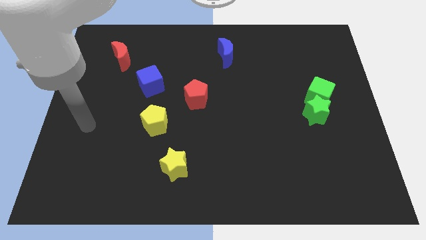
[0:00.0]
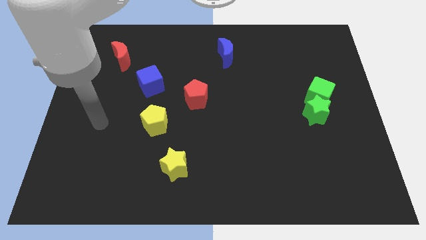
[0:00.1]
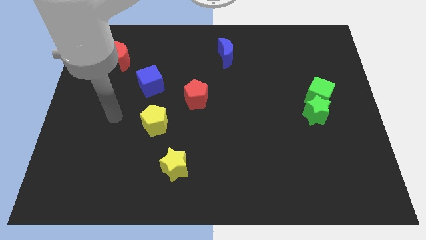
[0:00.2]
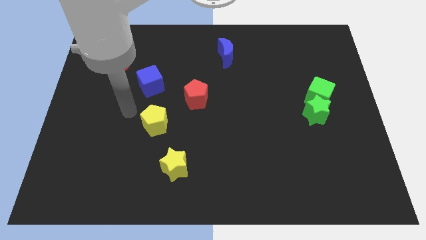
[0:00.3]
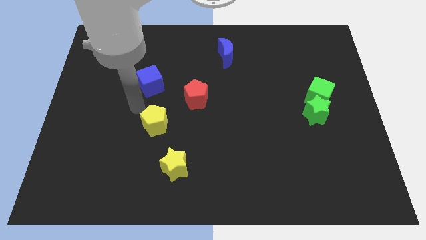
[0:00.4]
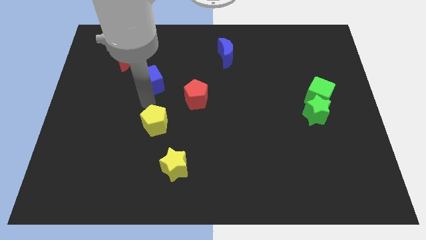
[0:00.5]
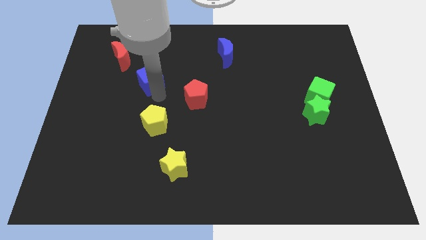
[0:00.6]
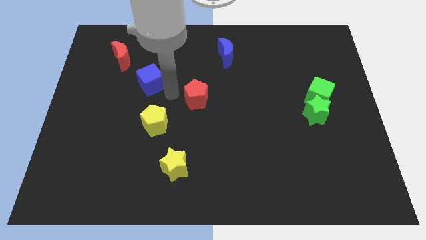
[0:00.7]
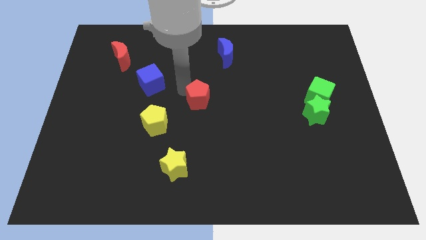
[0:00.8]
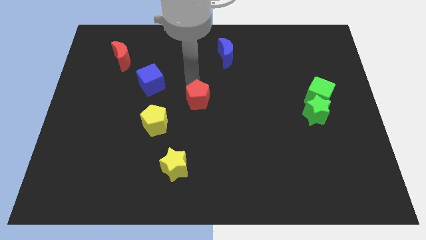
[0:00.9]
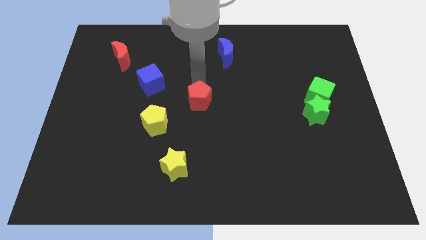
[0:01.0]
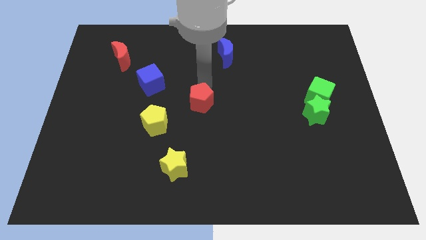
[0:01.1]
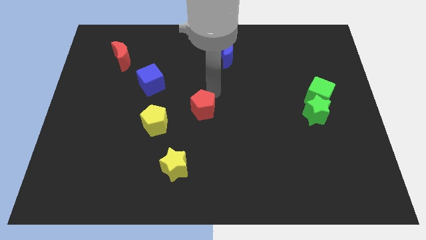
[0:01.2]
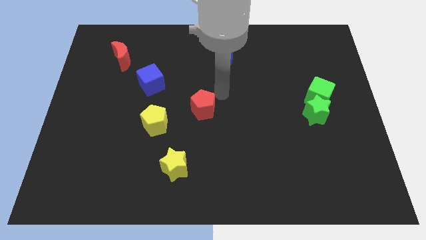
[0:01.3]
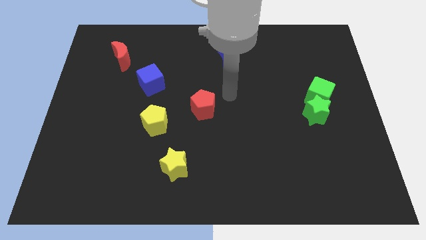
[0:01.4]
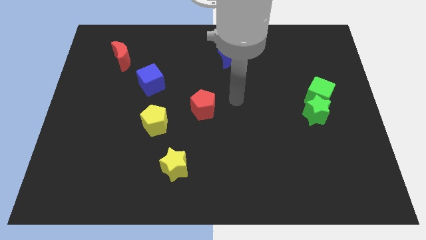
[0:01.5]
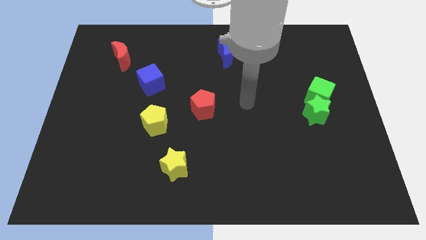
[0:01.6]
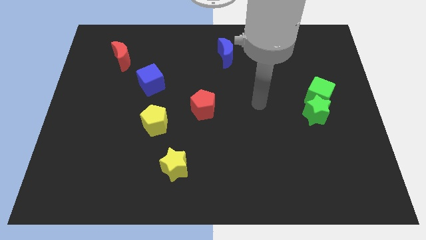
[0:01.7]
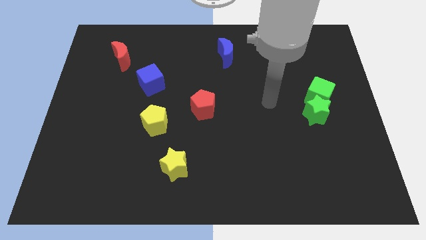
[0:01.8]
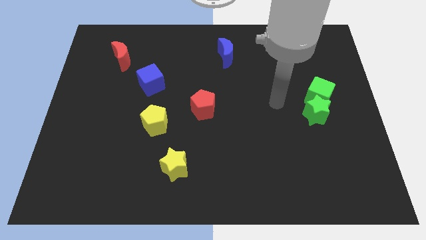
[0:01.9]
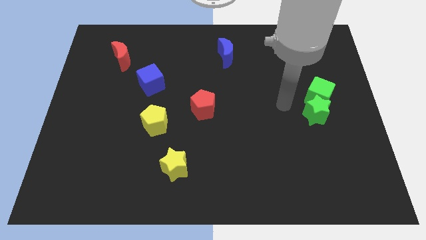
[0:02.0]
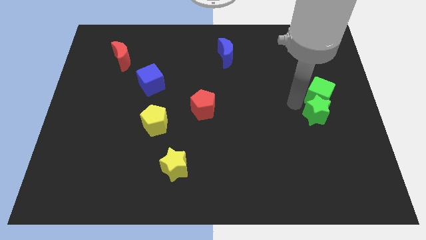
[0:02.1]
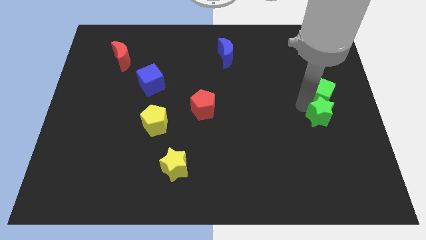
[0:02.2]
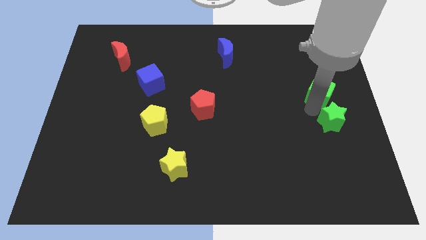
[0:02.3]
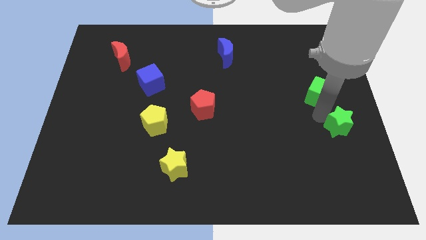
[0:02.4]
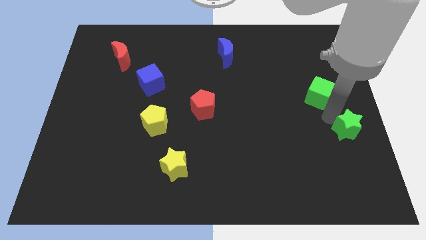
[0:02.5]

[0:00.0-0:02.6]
move the green cube away from the green star

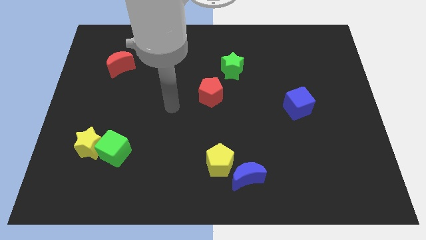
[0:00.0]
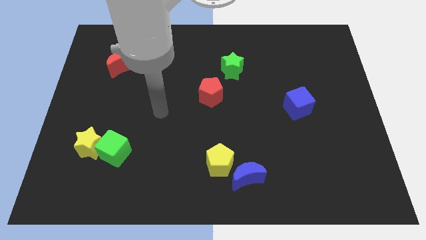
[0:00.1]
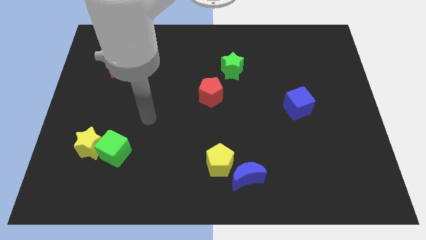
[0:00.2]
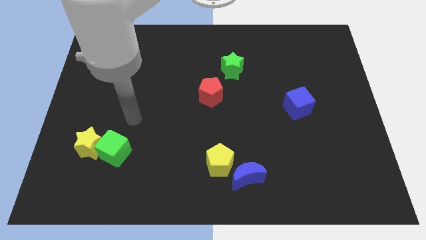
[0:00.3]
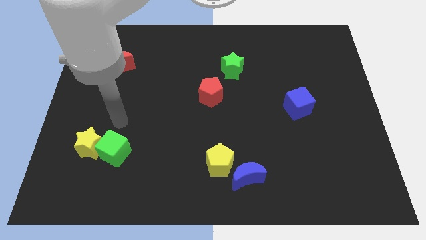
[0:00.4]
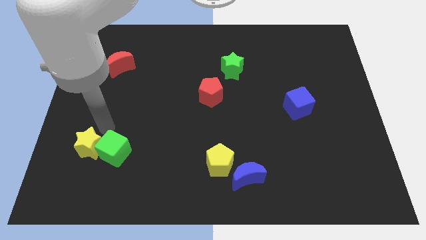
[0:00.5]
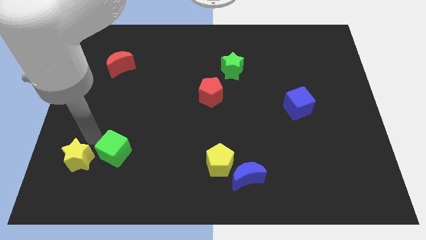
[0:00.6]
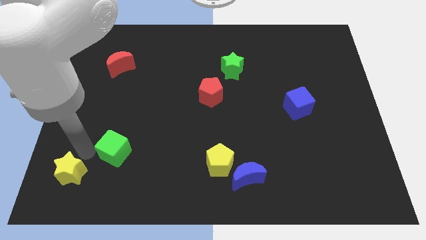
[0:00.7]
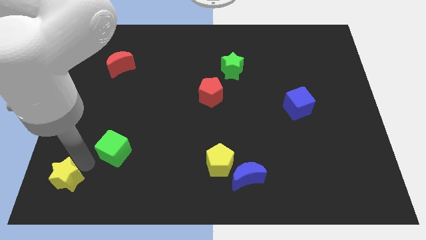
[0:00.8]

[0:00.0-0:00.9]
move the green cube away from the yellow star

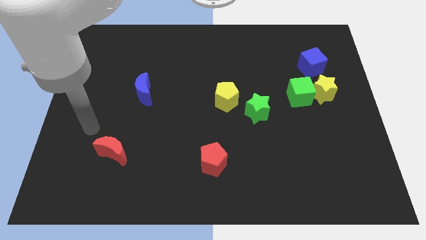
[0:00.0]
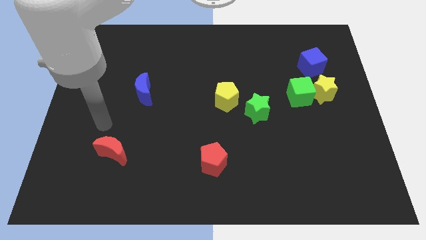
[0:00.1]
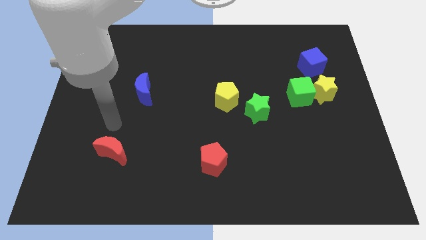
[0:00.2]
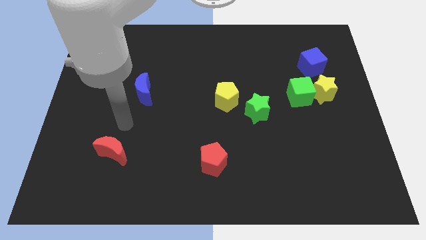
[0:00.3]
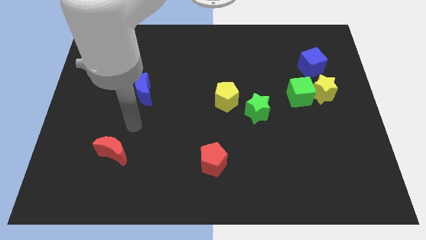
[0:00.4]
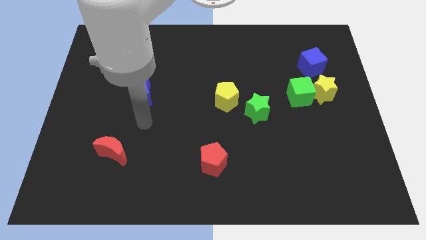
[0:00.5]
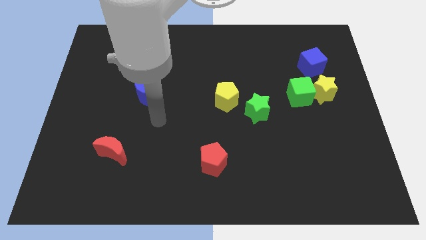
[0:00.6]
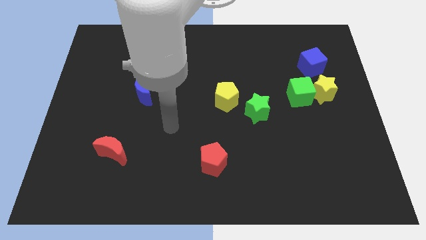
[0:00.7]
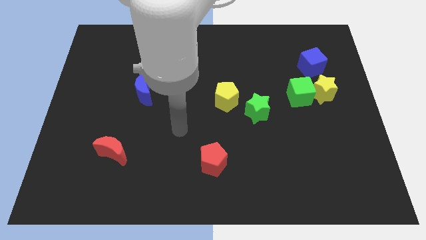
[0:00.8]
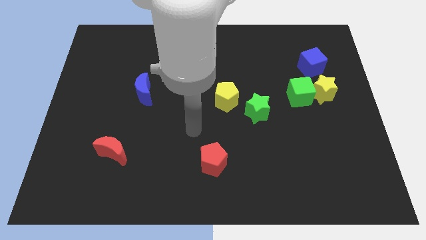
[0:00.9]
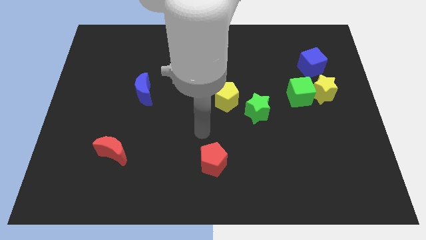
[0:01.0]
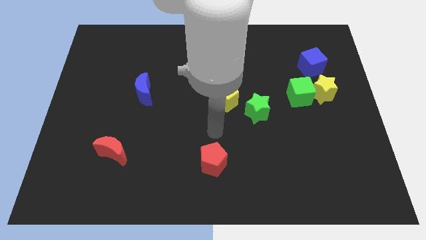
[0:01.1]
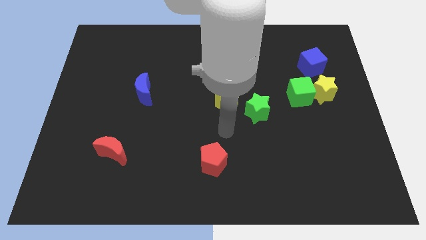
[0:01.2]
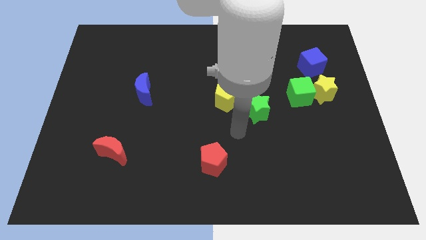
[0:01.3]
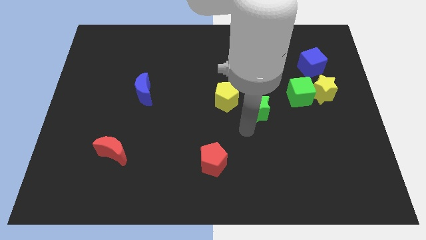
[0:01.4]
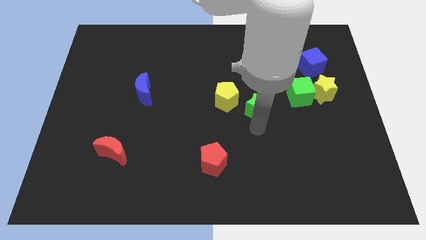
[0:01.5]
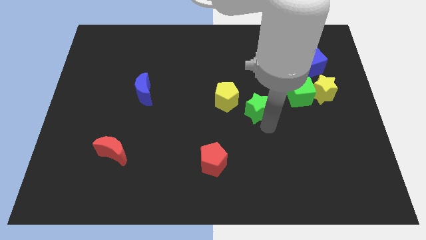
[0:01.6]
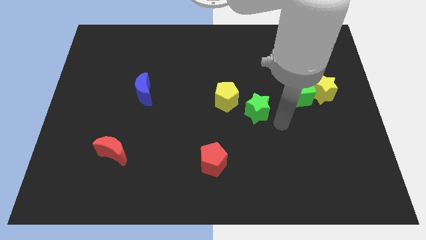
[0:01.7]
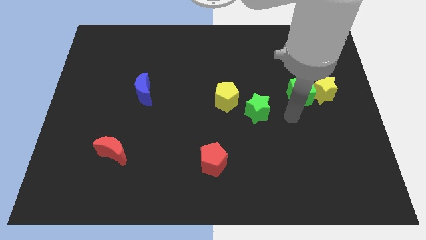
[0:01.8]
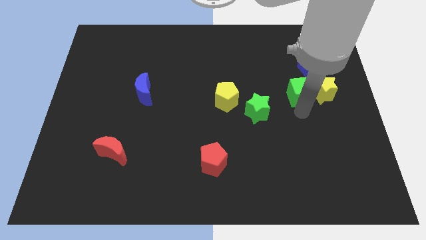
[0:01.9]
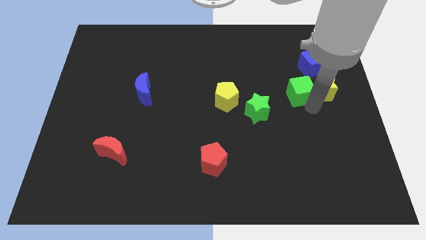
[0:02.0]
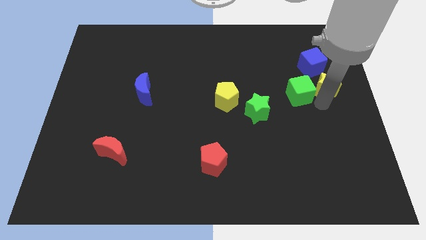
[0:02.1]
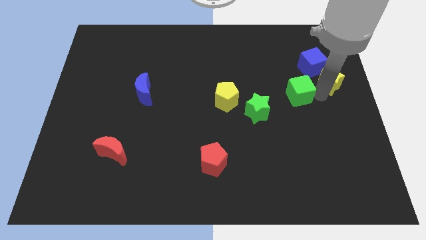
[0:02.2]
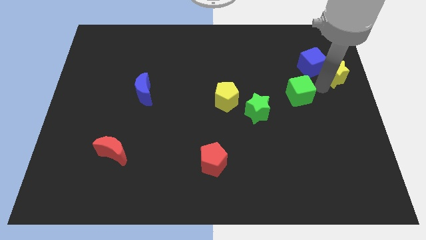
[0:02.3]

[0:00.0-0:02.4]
separate the green cube from the yellow star

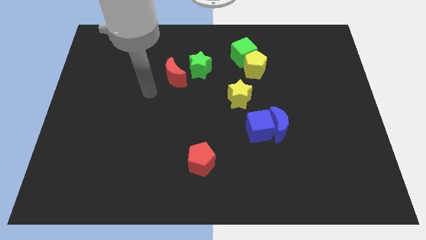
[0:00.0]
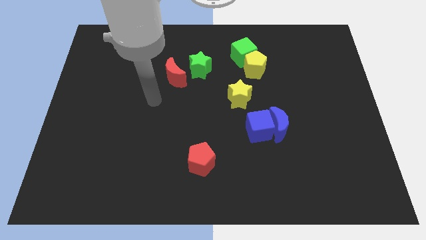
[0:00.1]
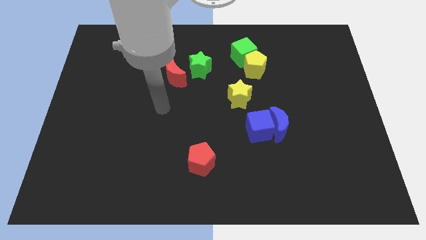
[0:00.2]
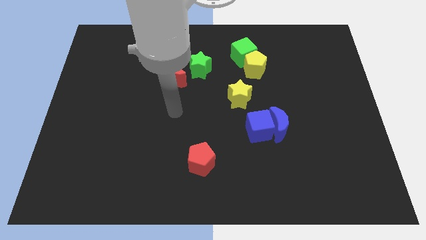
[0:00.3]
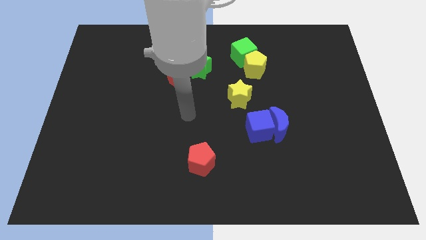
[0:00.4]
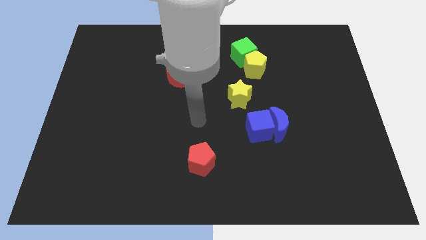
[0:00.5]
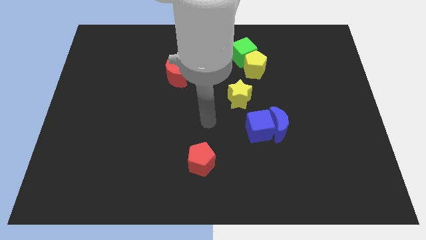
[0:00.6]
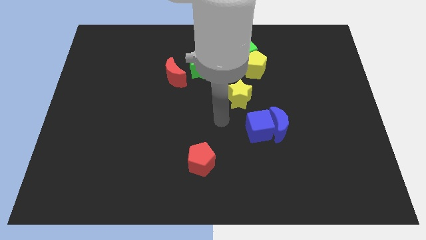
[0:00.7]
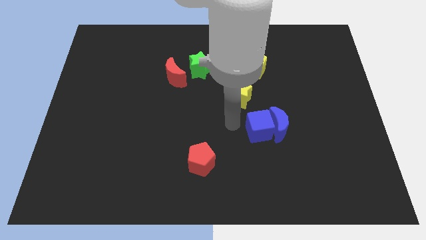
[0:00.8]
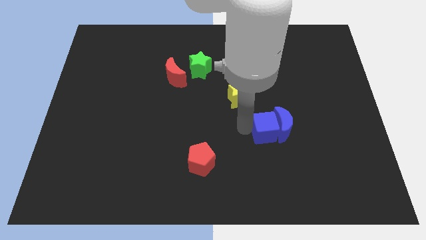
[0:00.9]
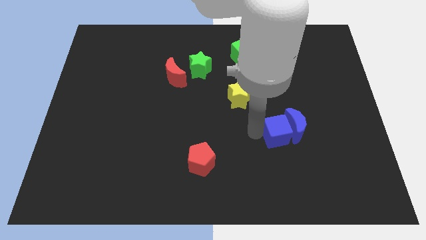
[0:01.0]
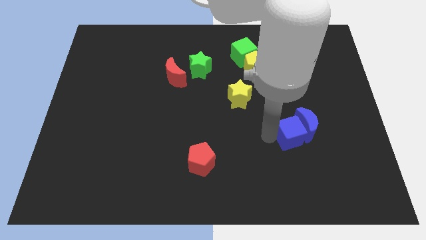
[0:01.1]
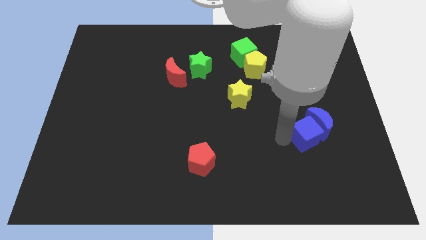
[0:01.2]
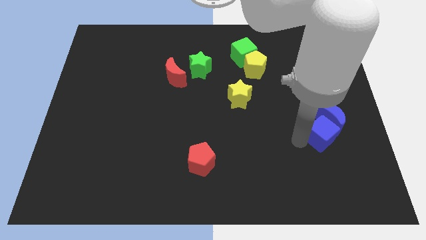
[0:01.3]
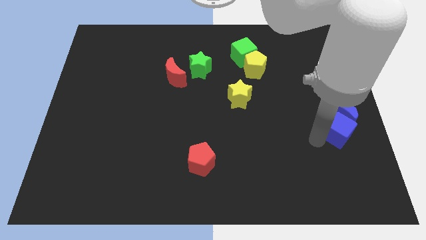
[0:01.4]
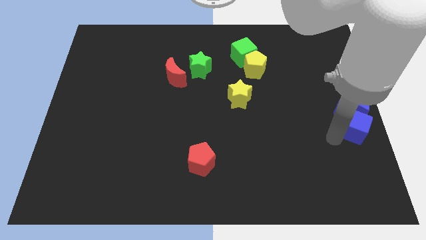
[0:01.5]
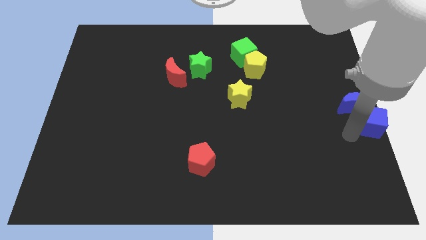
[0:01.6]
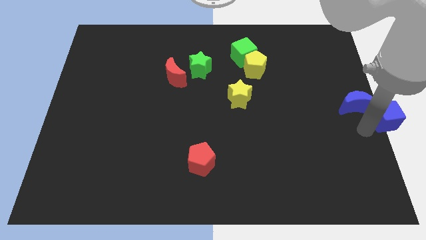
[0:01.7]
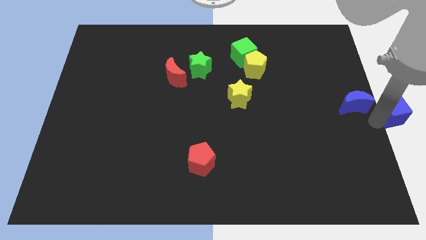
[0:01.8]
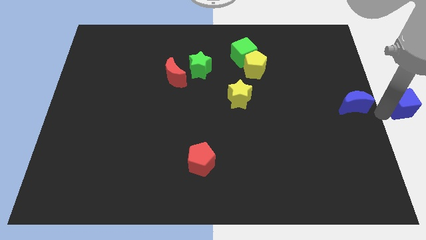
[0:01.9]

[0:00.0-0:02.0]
pull the blue moon apart from the blue cube

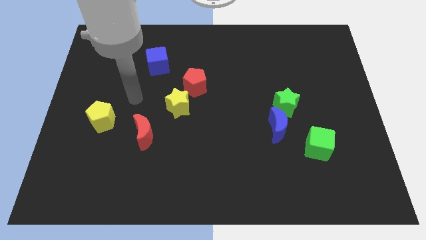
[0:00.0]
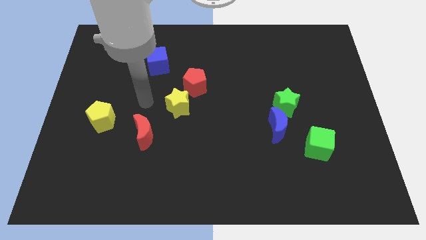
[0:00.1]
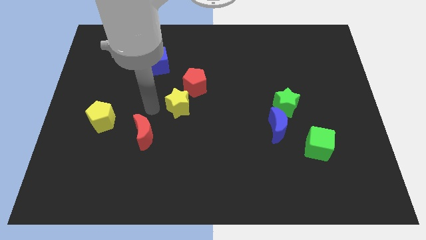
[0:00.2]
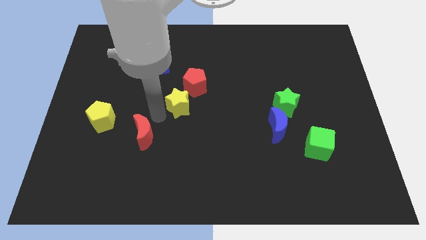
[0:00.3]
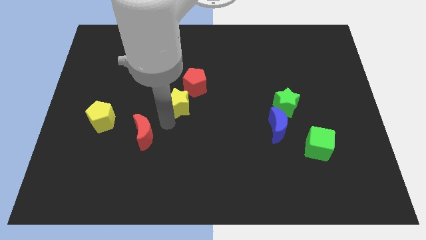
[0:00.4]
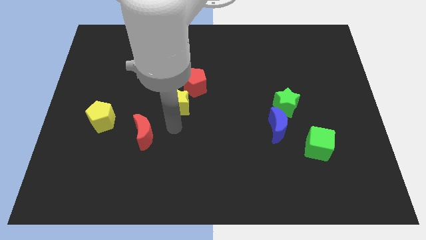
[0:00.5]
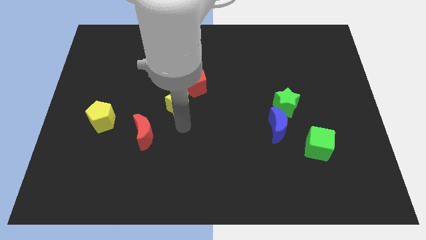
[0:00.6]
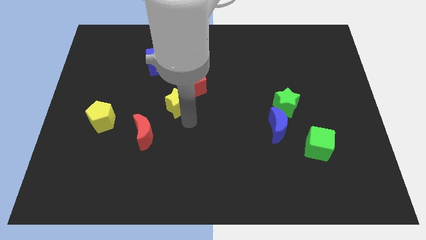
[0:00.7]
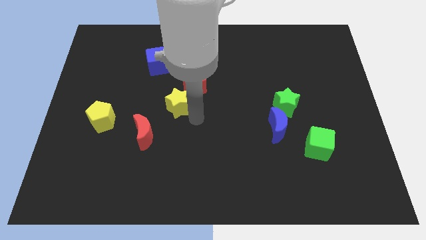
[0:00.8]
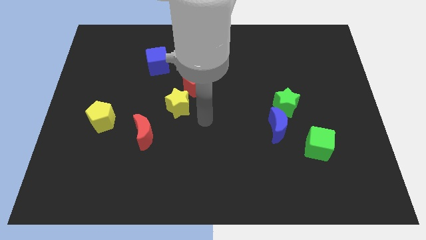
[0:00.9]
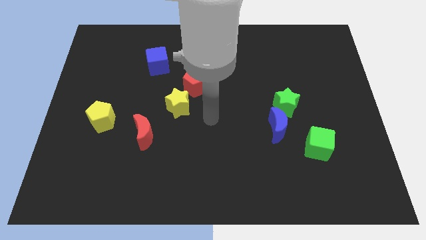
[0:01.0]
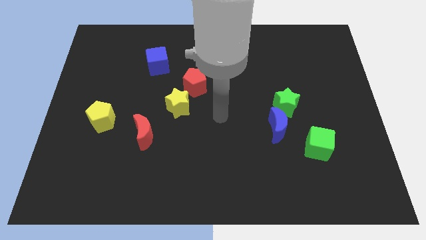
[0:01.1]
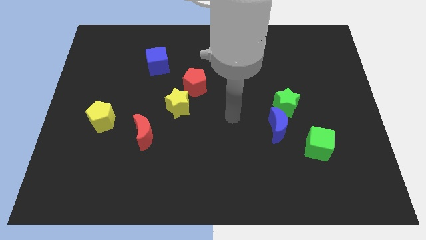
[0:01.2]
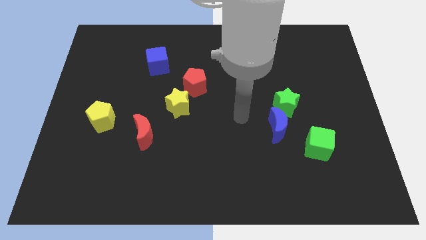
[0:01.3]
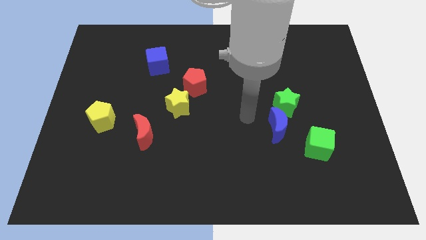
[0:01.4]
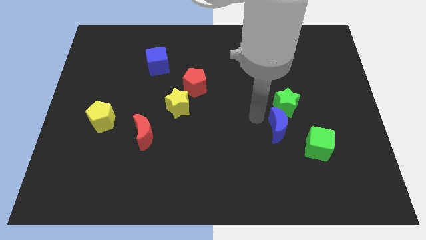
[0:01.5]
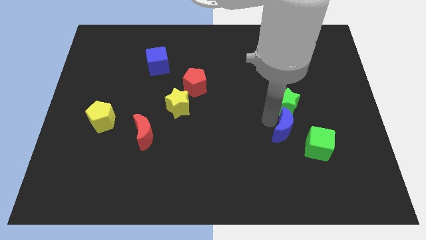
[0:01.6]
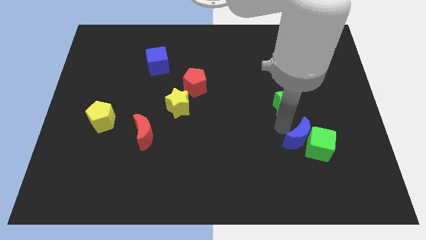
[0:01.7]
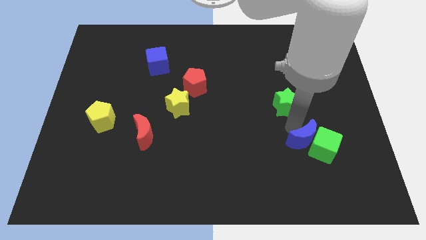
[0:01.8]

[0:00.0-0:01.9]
pull the green star apart from the blue moon
